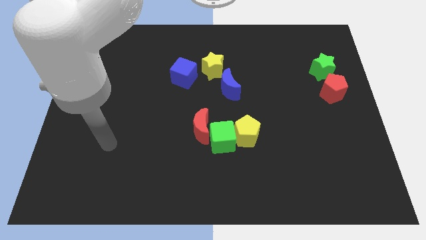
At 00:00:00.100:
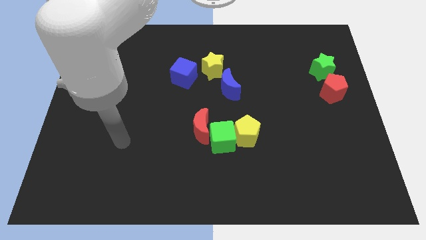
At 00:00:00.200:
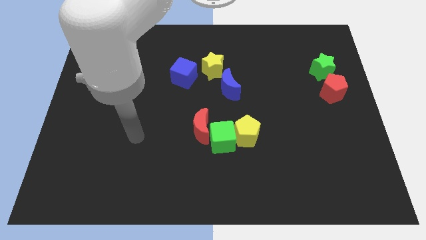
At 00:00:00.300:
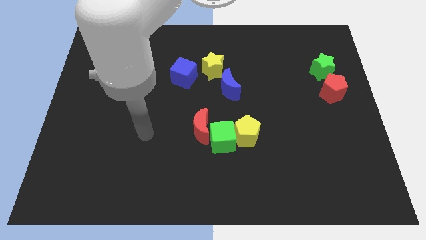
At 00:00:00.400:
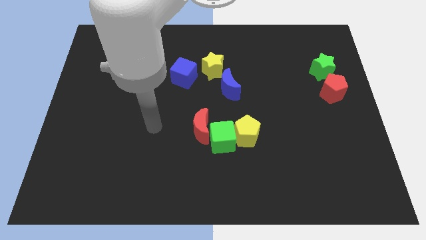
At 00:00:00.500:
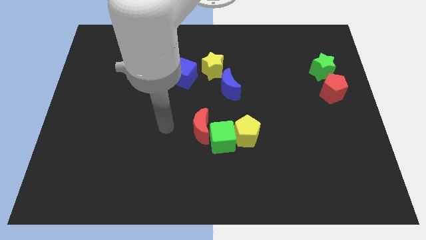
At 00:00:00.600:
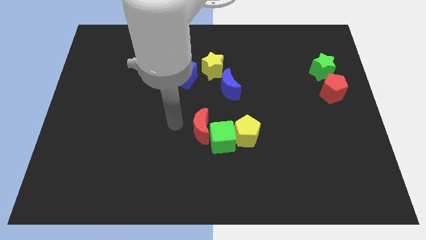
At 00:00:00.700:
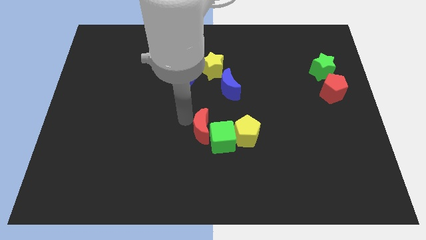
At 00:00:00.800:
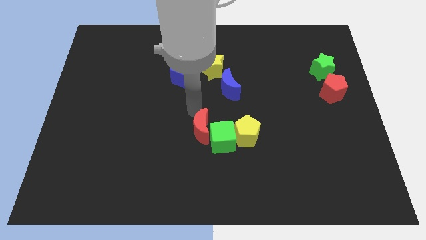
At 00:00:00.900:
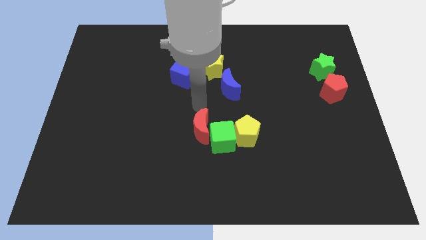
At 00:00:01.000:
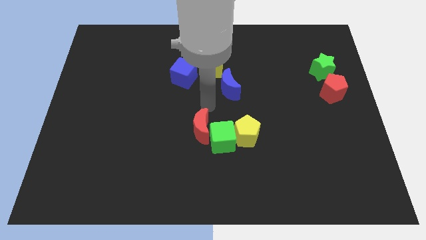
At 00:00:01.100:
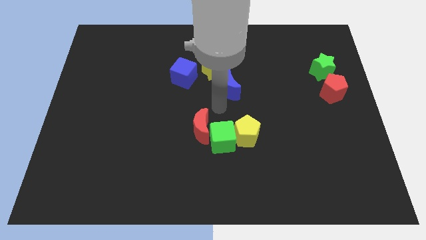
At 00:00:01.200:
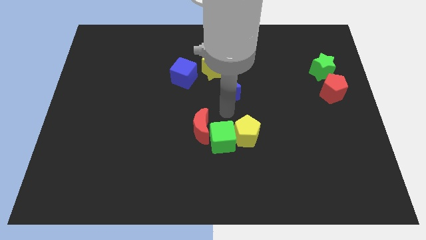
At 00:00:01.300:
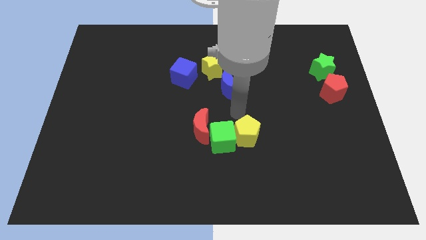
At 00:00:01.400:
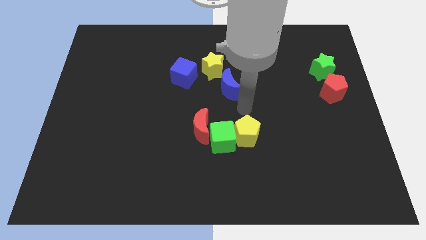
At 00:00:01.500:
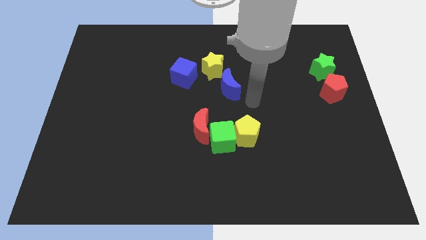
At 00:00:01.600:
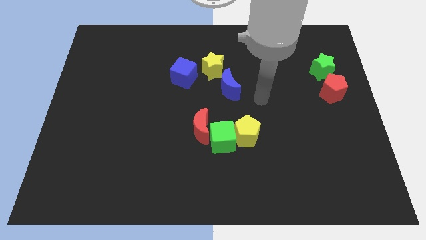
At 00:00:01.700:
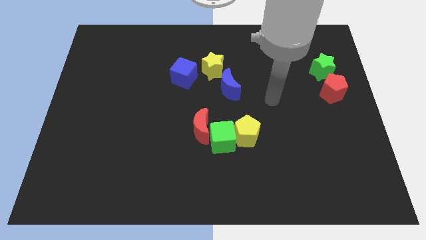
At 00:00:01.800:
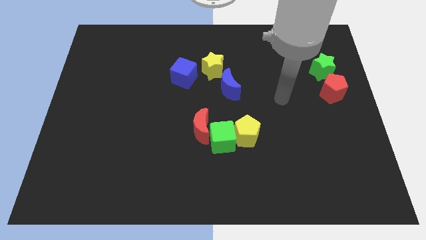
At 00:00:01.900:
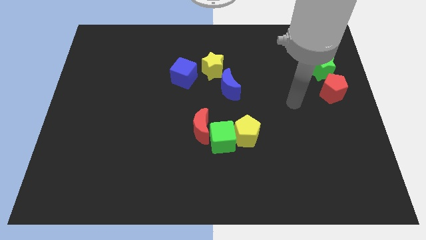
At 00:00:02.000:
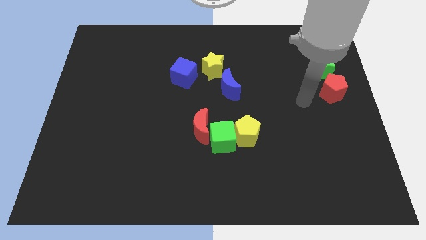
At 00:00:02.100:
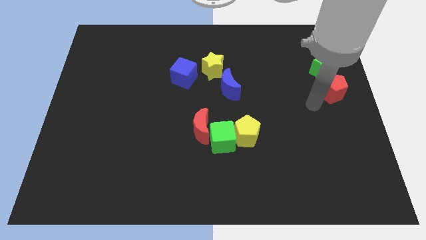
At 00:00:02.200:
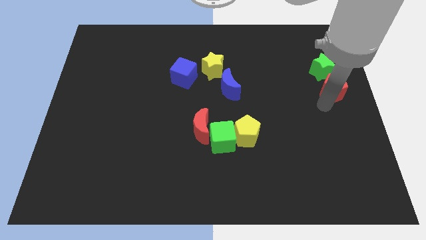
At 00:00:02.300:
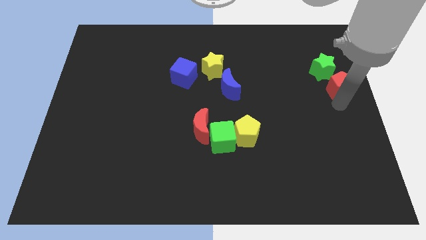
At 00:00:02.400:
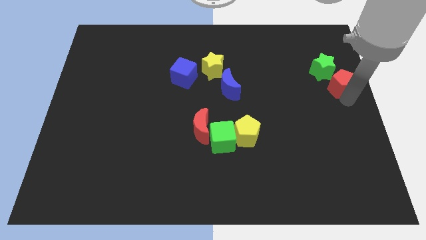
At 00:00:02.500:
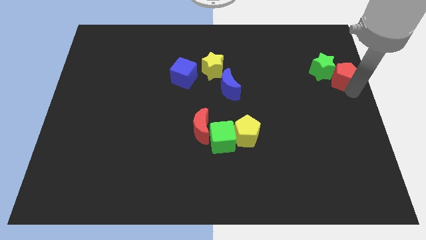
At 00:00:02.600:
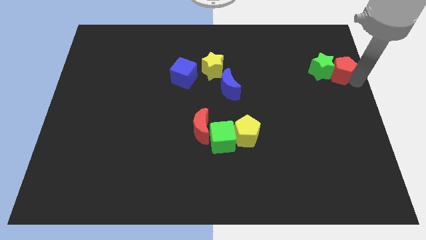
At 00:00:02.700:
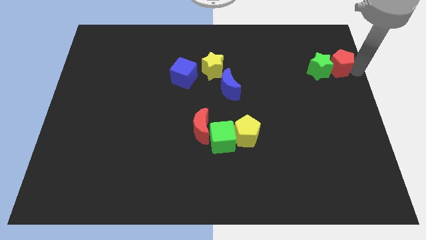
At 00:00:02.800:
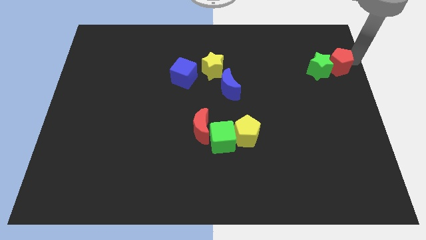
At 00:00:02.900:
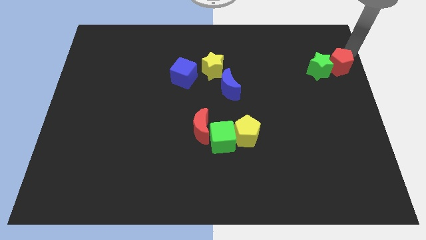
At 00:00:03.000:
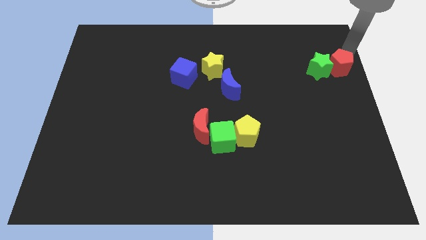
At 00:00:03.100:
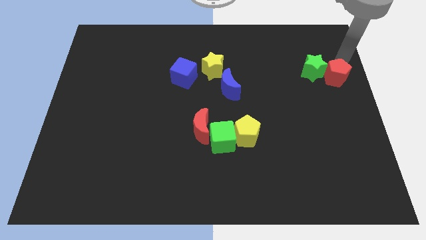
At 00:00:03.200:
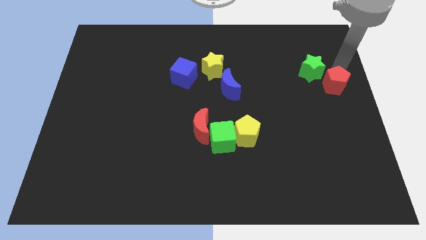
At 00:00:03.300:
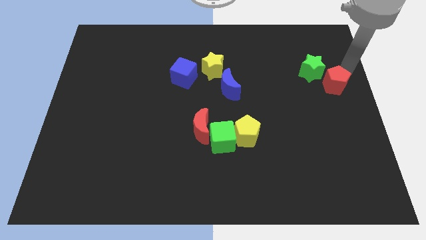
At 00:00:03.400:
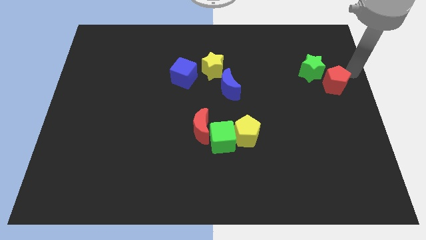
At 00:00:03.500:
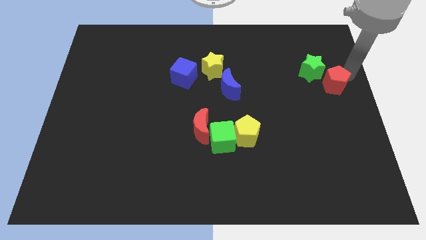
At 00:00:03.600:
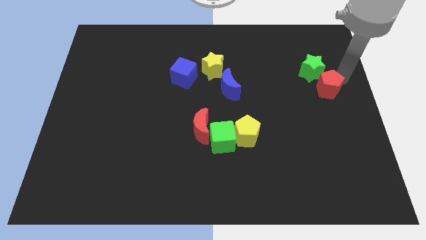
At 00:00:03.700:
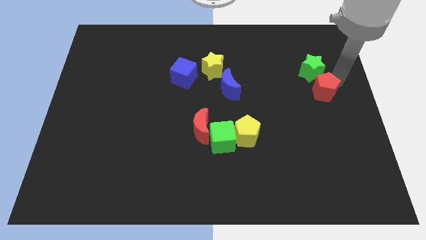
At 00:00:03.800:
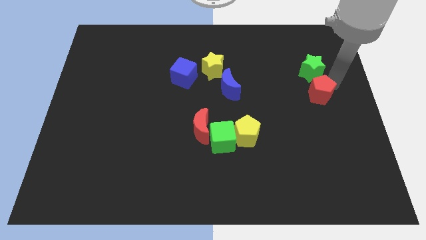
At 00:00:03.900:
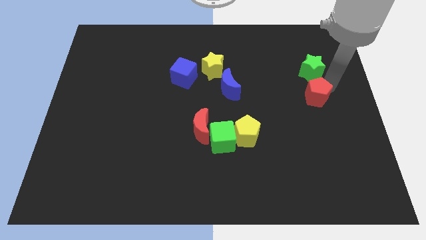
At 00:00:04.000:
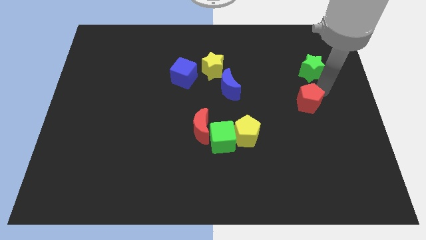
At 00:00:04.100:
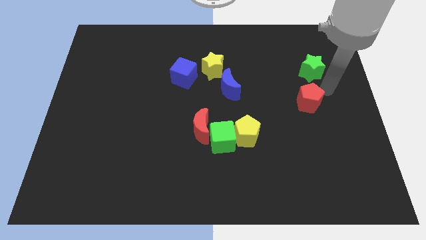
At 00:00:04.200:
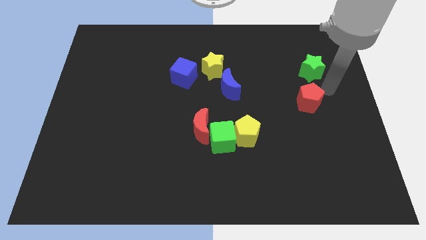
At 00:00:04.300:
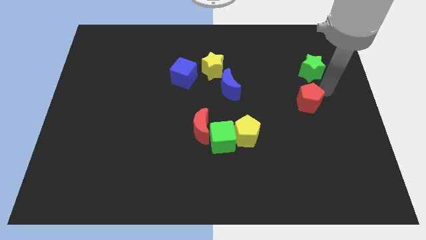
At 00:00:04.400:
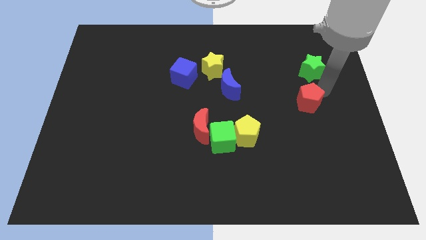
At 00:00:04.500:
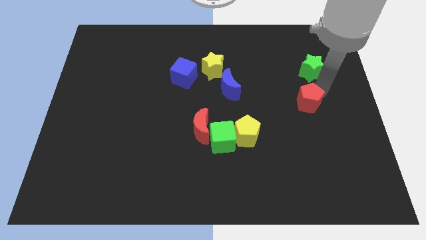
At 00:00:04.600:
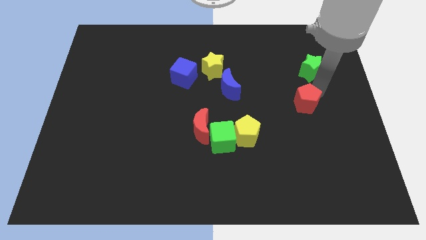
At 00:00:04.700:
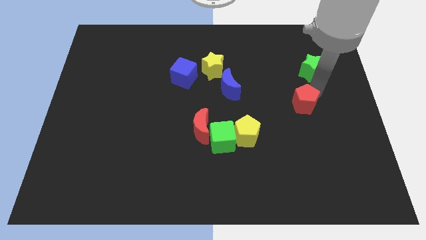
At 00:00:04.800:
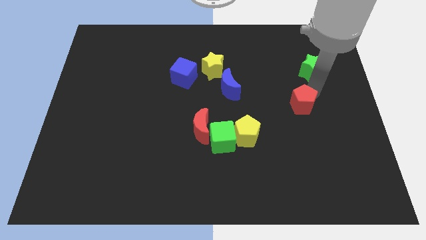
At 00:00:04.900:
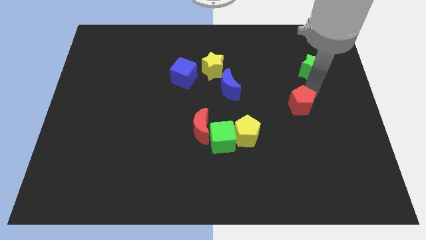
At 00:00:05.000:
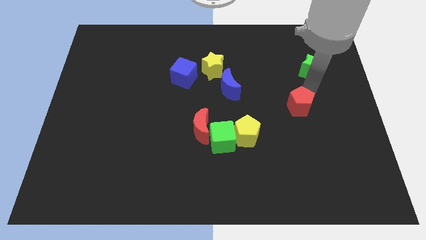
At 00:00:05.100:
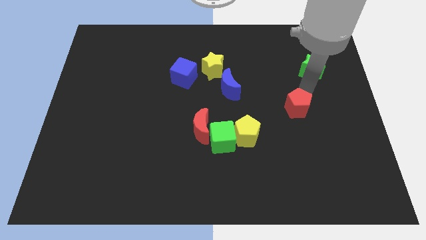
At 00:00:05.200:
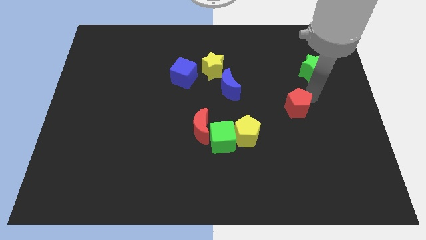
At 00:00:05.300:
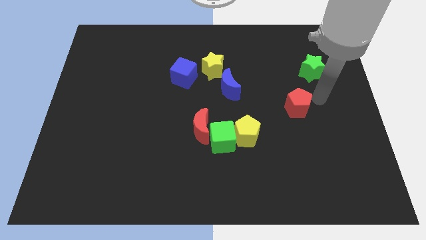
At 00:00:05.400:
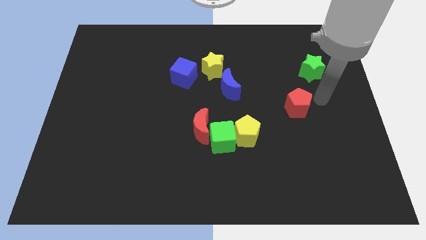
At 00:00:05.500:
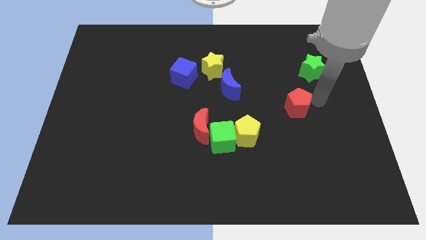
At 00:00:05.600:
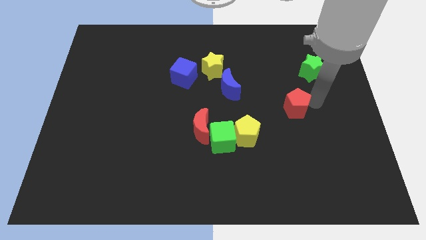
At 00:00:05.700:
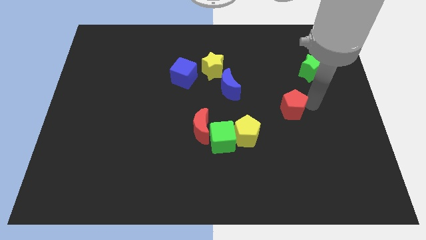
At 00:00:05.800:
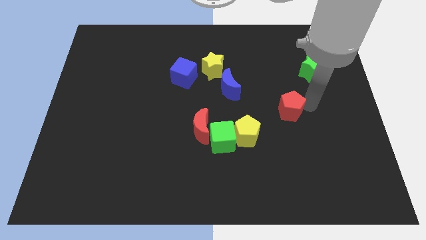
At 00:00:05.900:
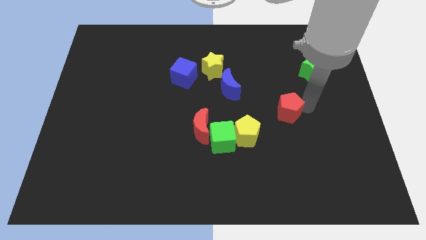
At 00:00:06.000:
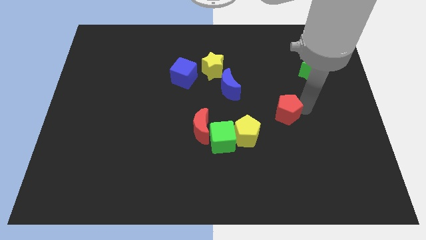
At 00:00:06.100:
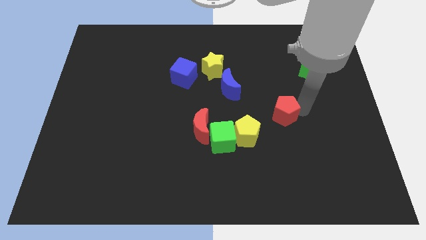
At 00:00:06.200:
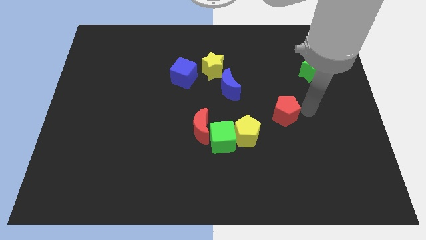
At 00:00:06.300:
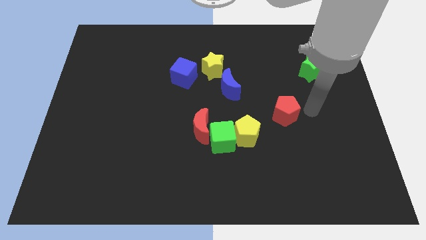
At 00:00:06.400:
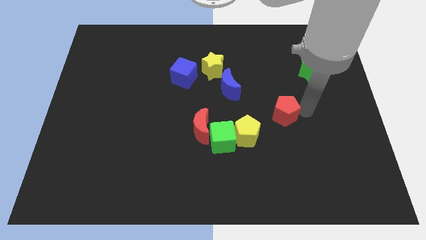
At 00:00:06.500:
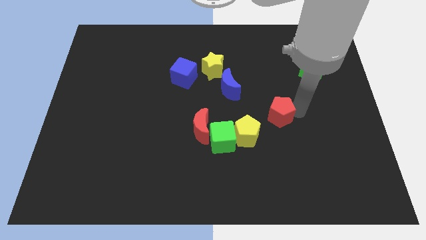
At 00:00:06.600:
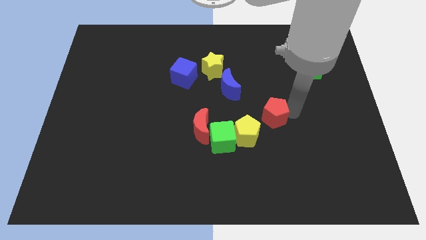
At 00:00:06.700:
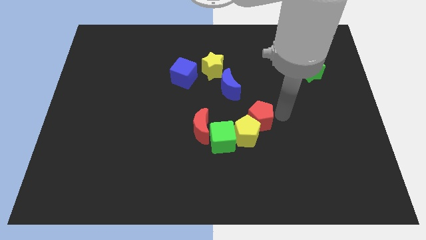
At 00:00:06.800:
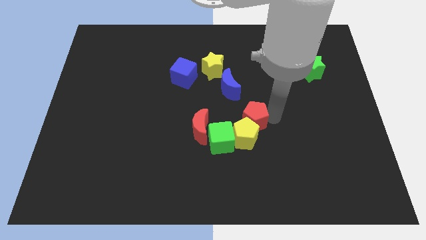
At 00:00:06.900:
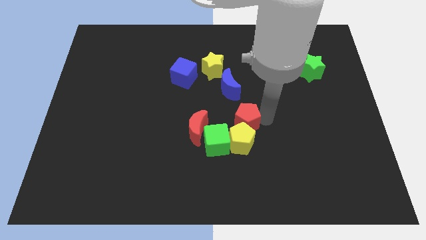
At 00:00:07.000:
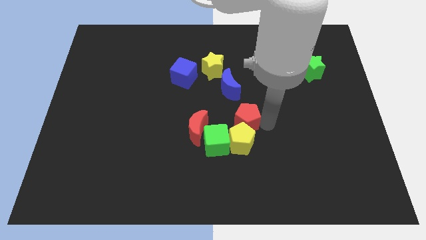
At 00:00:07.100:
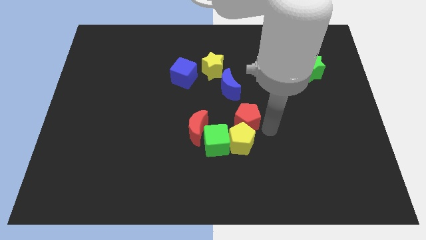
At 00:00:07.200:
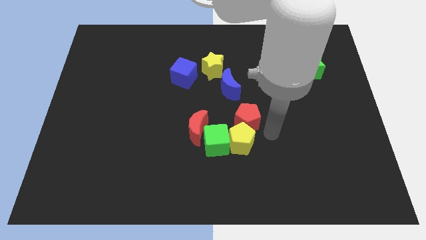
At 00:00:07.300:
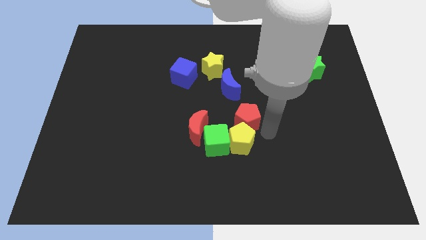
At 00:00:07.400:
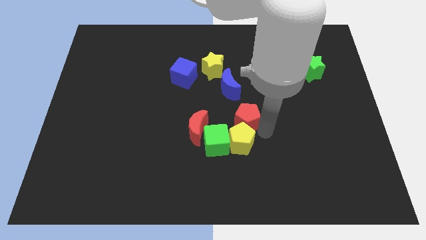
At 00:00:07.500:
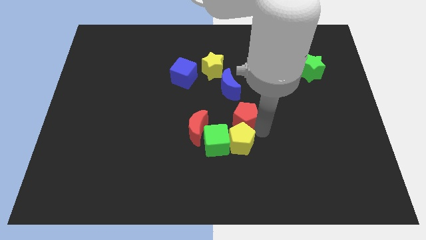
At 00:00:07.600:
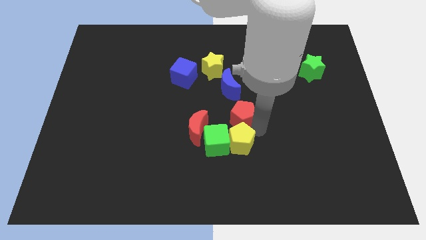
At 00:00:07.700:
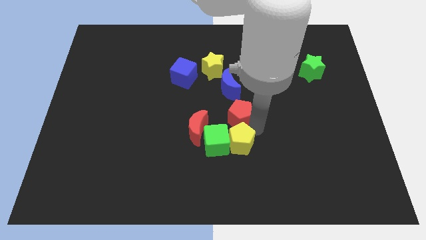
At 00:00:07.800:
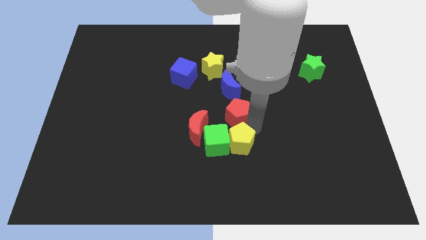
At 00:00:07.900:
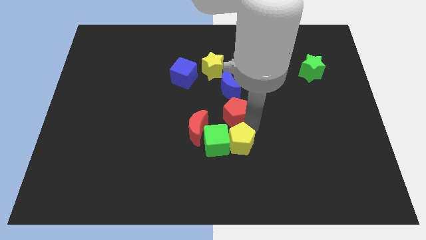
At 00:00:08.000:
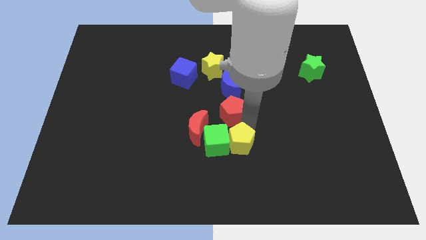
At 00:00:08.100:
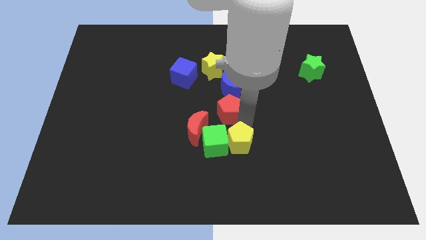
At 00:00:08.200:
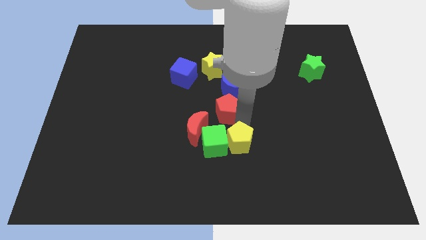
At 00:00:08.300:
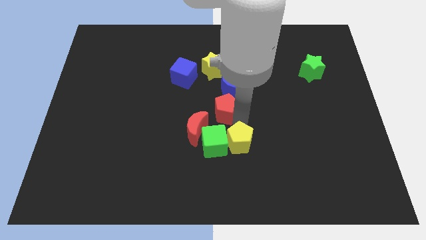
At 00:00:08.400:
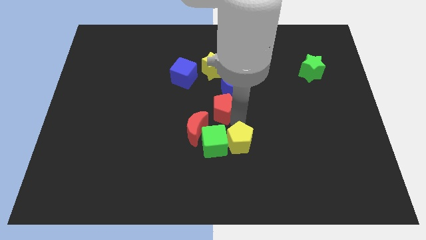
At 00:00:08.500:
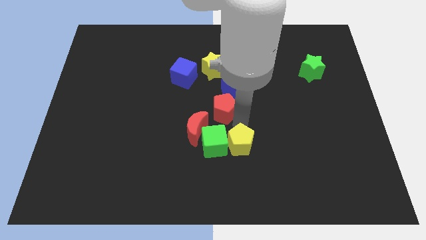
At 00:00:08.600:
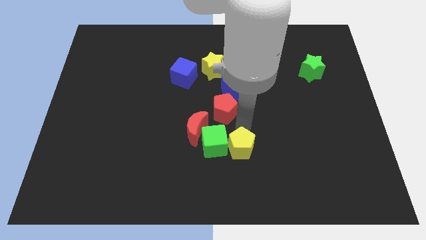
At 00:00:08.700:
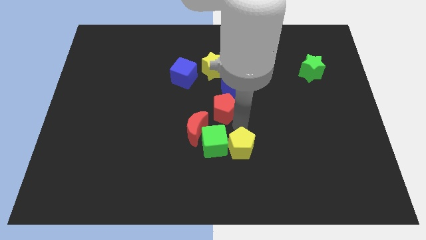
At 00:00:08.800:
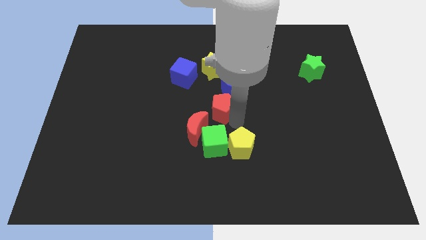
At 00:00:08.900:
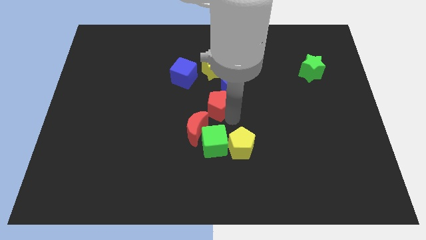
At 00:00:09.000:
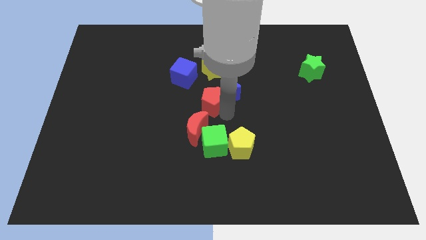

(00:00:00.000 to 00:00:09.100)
slide the red pentagon to the bottom right side of the blue cube
